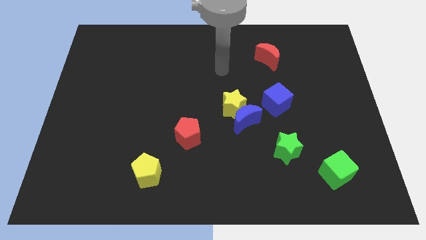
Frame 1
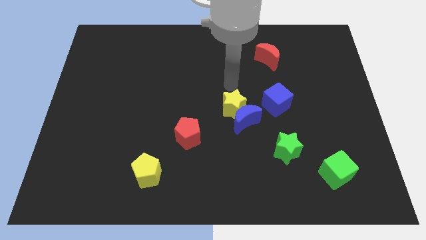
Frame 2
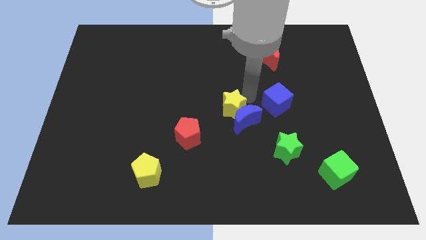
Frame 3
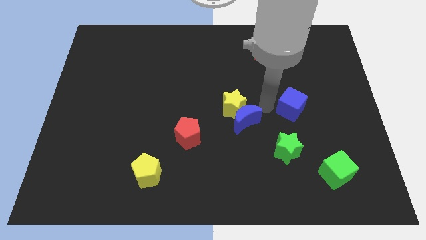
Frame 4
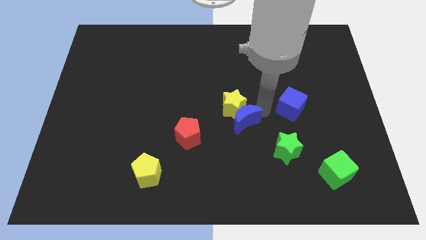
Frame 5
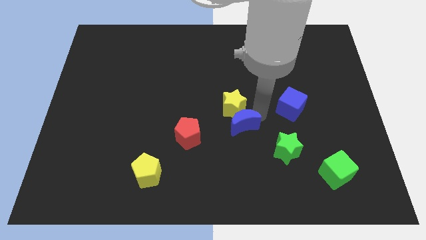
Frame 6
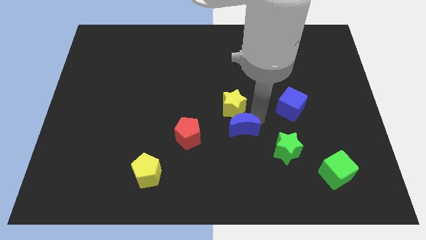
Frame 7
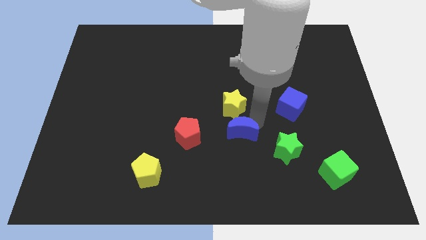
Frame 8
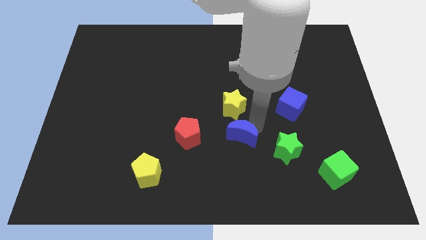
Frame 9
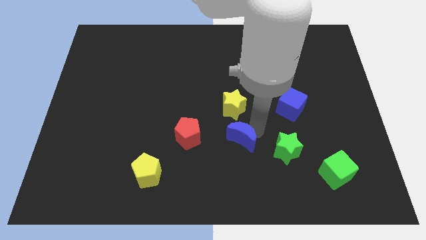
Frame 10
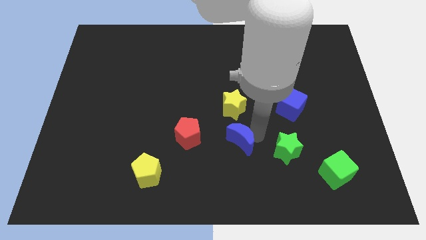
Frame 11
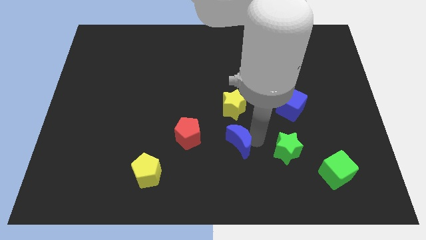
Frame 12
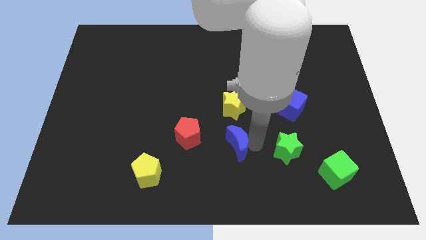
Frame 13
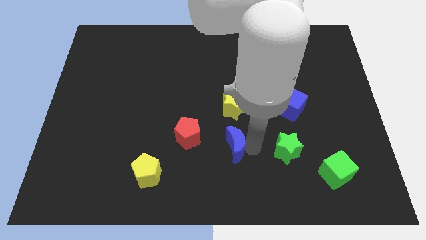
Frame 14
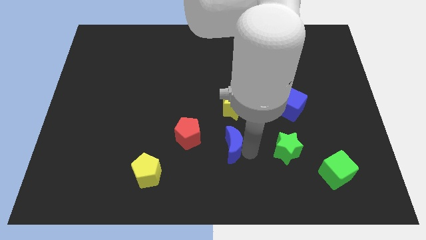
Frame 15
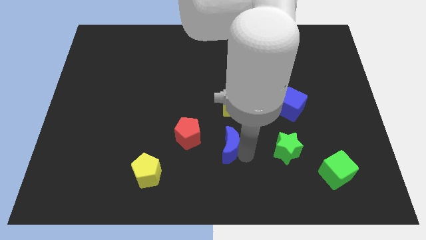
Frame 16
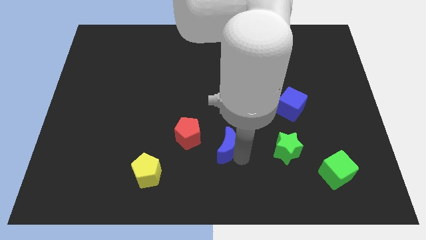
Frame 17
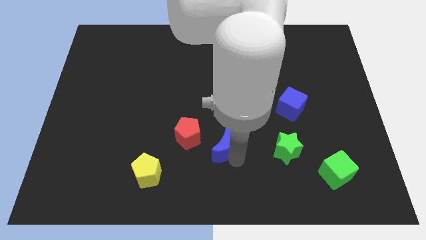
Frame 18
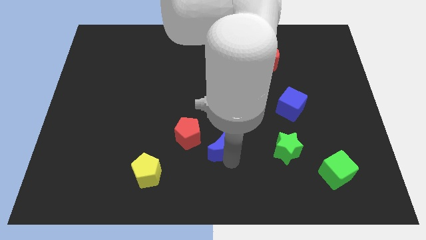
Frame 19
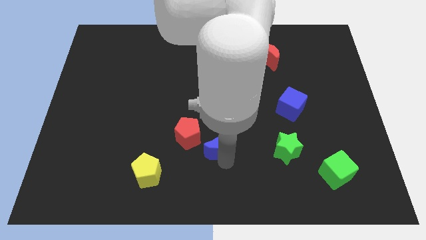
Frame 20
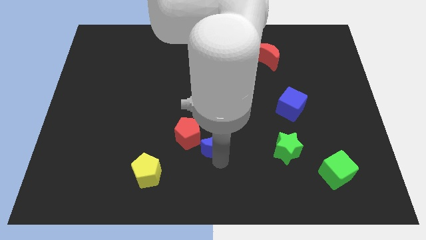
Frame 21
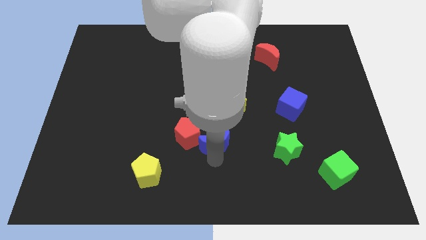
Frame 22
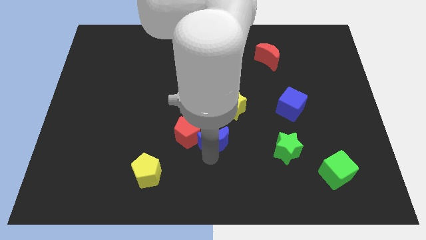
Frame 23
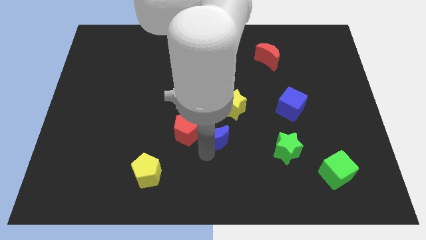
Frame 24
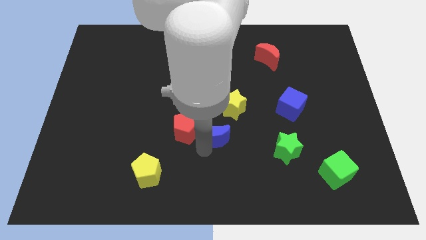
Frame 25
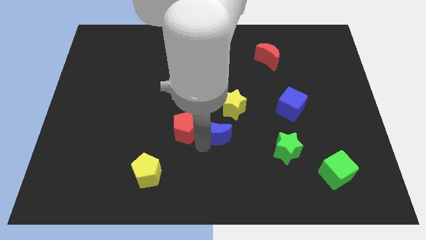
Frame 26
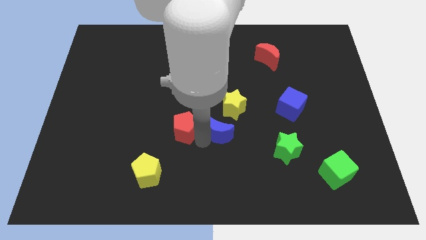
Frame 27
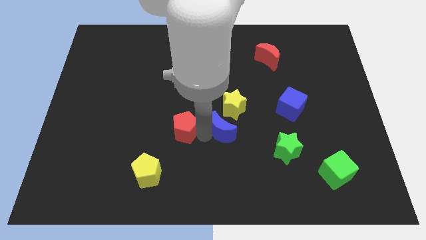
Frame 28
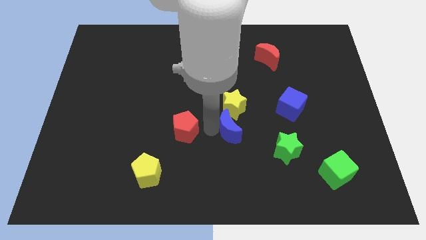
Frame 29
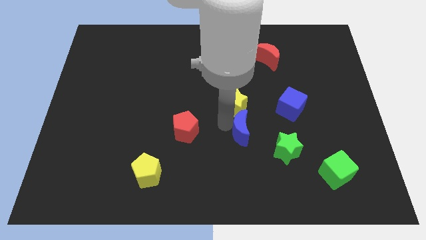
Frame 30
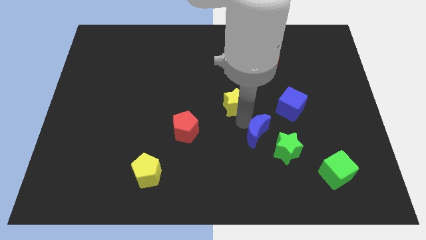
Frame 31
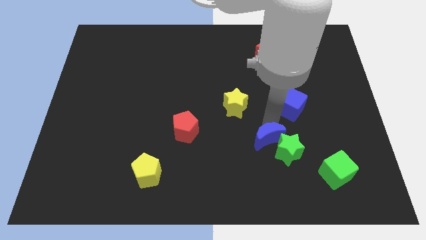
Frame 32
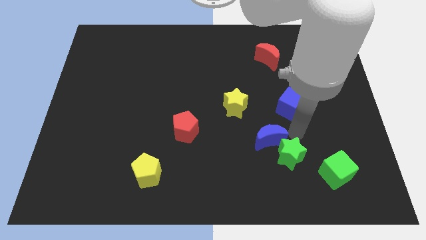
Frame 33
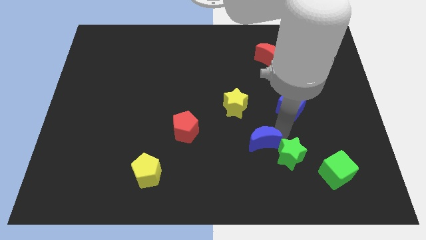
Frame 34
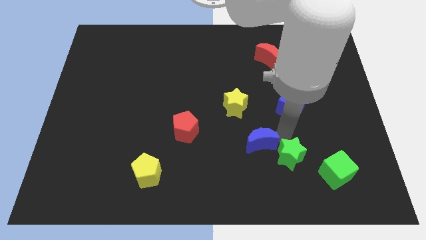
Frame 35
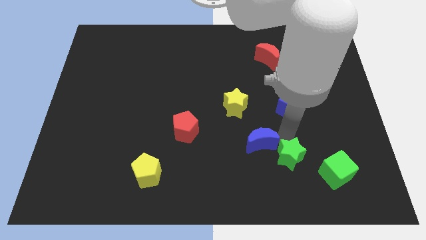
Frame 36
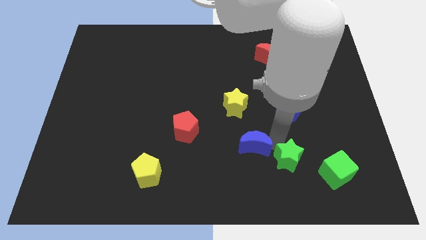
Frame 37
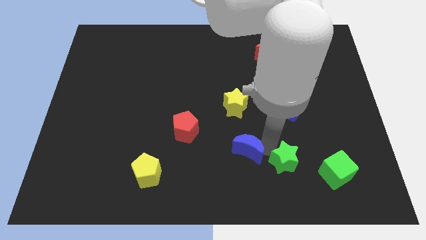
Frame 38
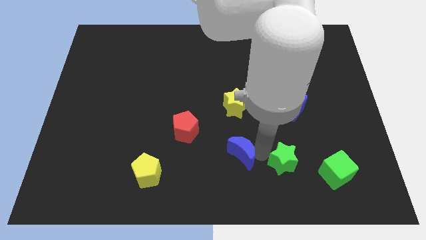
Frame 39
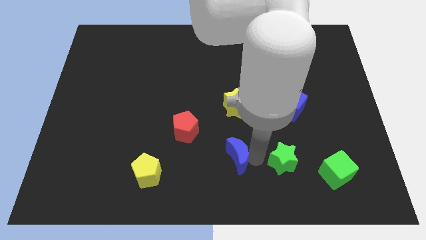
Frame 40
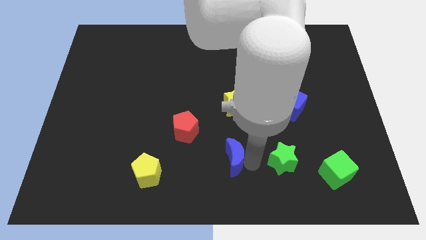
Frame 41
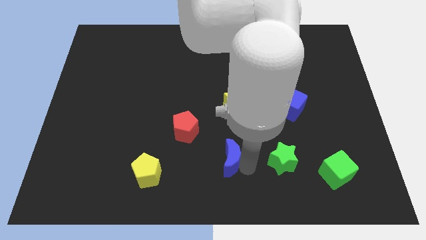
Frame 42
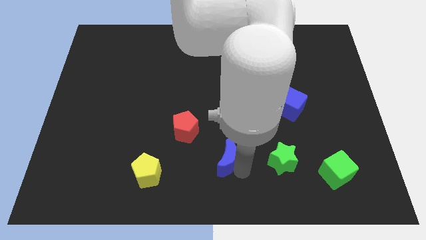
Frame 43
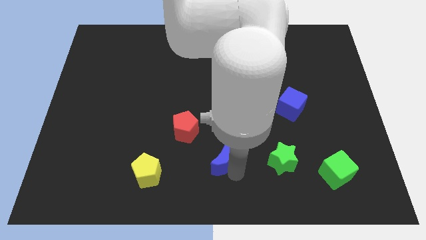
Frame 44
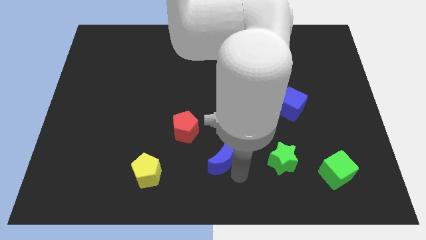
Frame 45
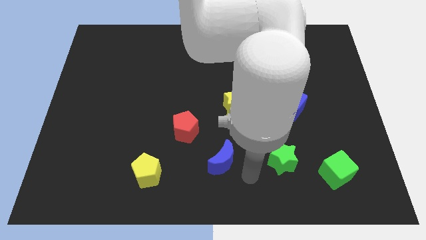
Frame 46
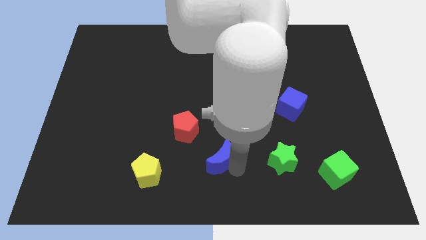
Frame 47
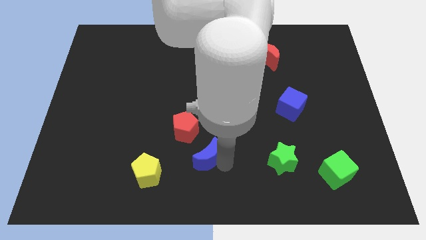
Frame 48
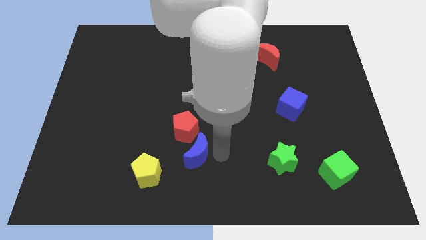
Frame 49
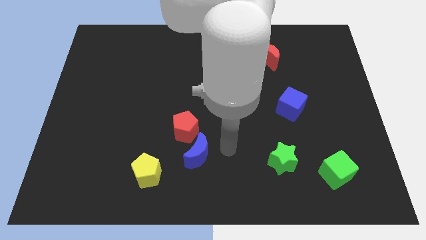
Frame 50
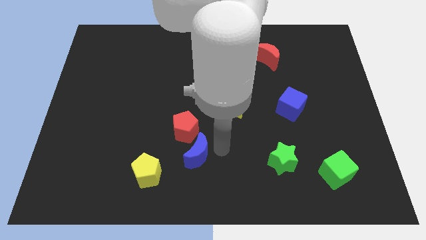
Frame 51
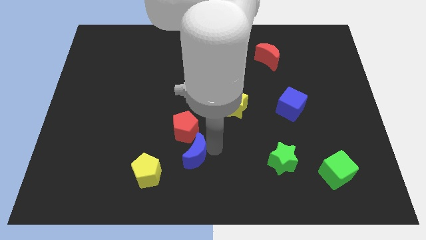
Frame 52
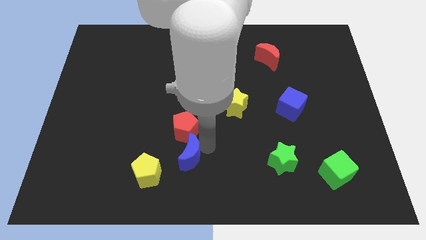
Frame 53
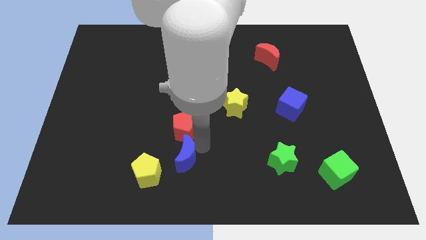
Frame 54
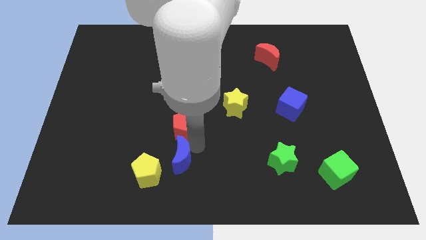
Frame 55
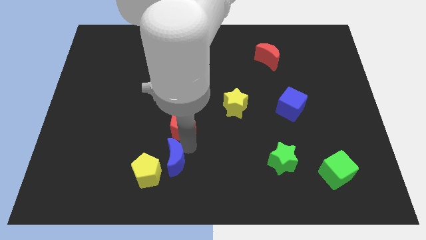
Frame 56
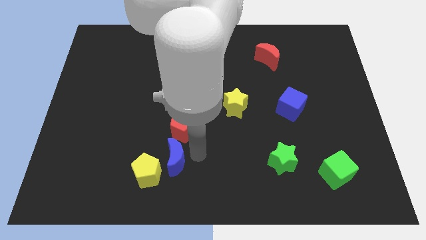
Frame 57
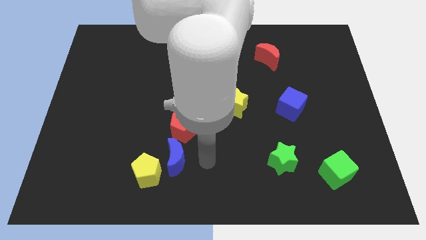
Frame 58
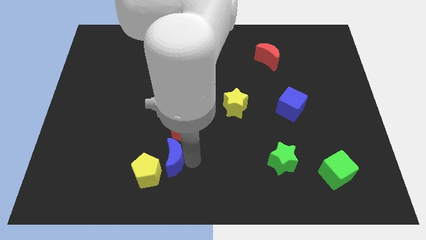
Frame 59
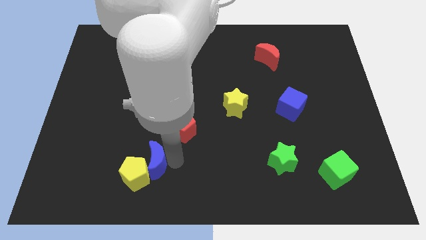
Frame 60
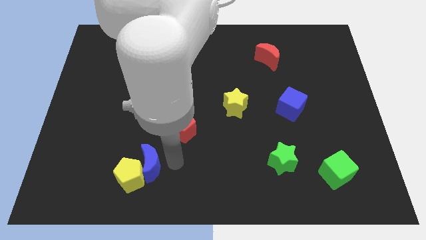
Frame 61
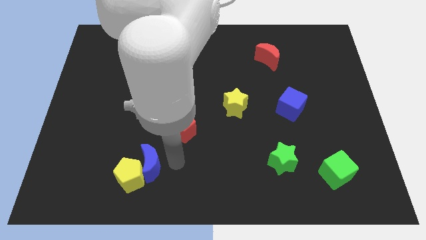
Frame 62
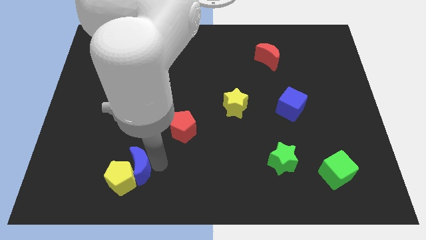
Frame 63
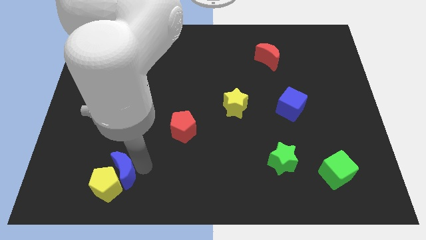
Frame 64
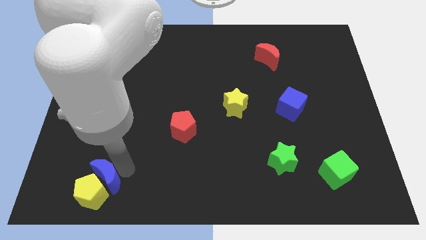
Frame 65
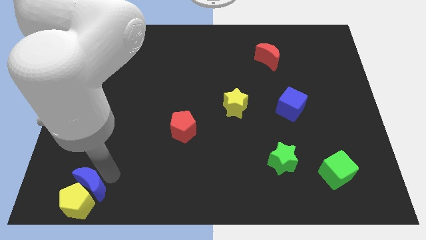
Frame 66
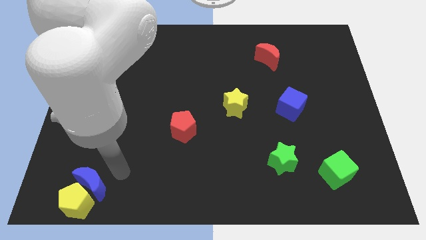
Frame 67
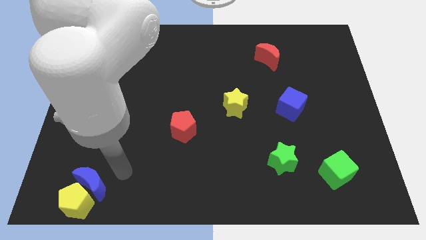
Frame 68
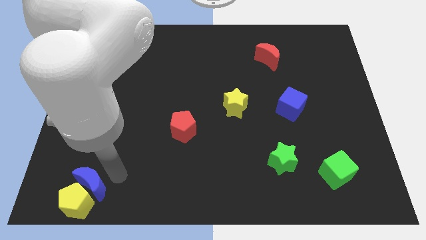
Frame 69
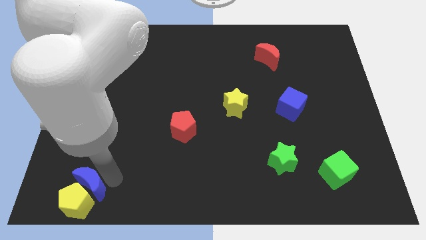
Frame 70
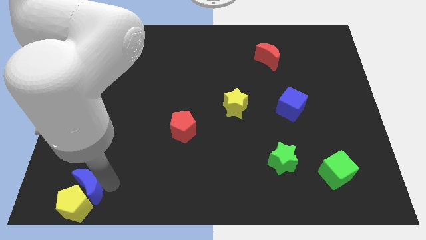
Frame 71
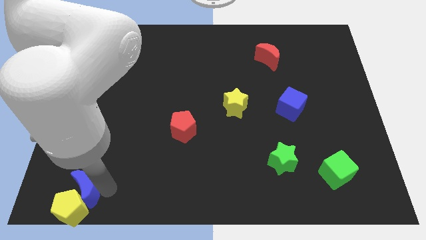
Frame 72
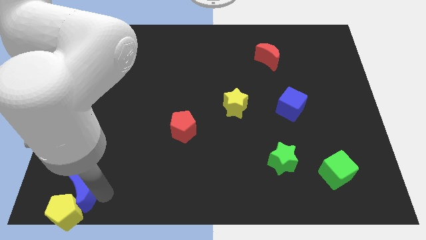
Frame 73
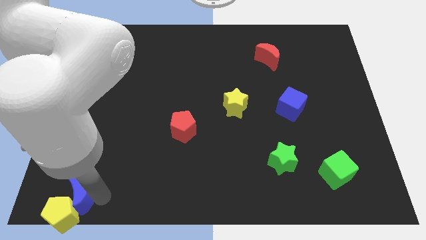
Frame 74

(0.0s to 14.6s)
push the blue moon to the bottom left corner
